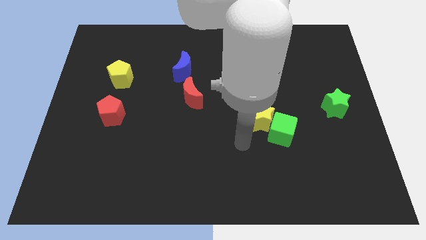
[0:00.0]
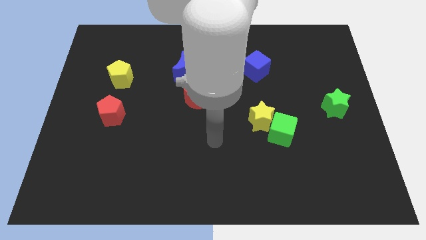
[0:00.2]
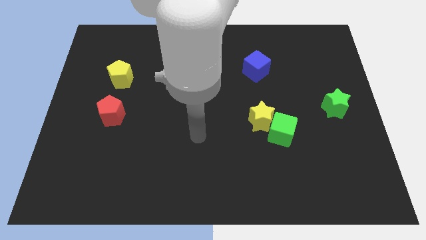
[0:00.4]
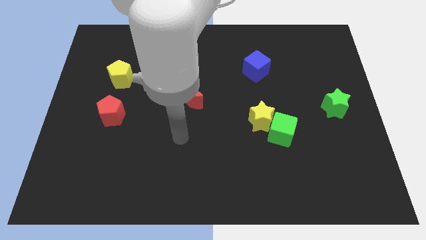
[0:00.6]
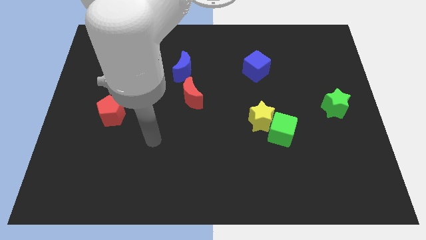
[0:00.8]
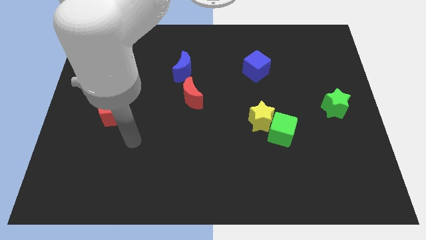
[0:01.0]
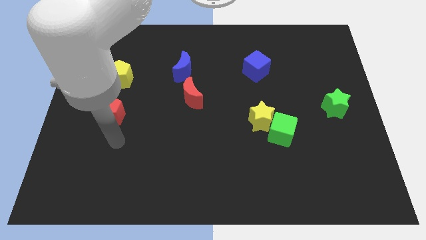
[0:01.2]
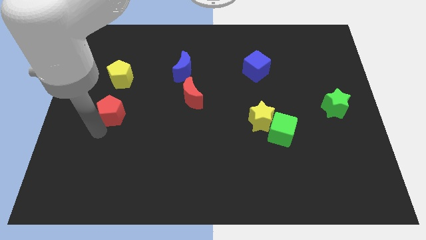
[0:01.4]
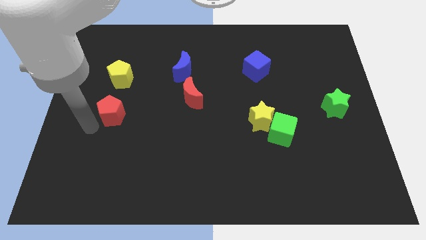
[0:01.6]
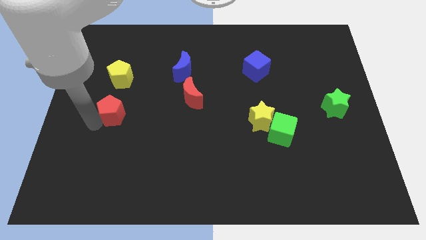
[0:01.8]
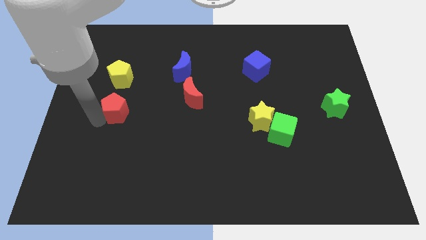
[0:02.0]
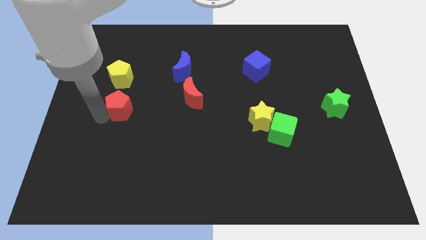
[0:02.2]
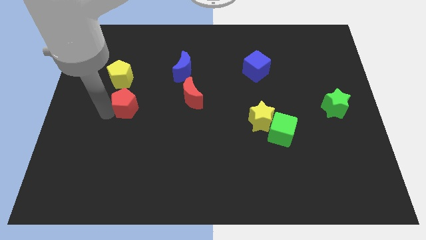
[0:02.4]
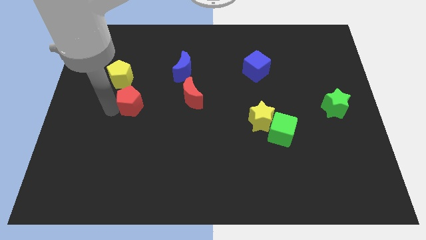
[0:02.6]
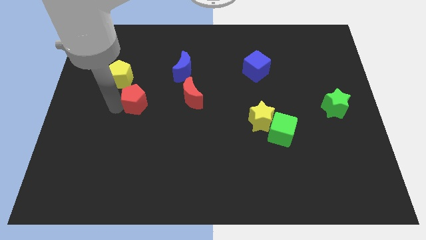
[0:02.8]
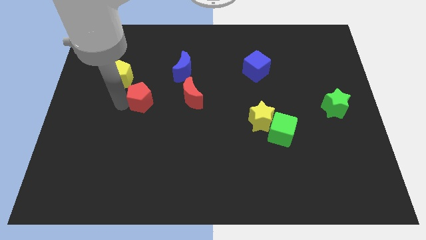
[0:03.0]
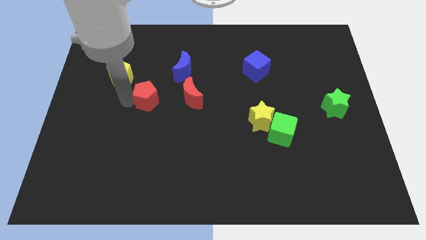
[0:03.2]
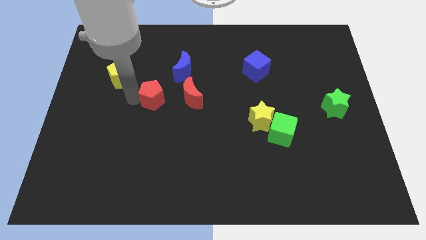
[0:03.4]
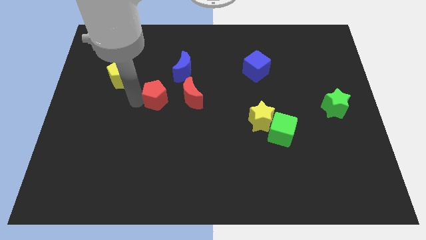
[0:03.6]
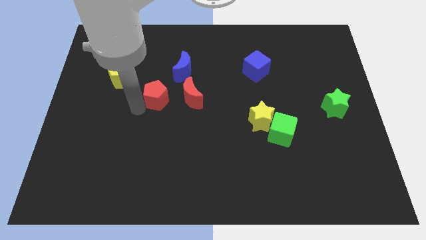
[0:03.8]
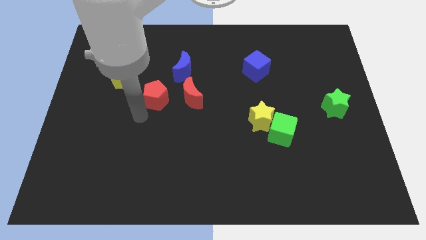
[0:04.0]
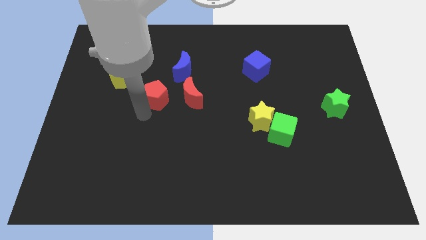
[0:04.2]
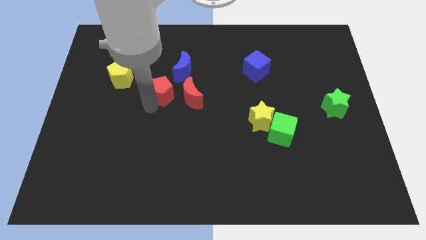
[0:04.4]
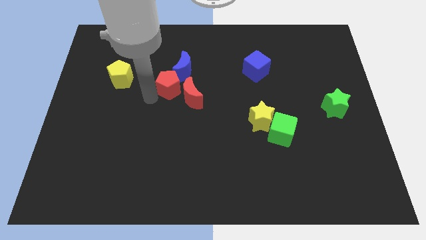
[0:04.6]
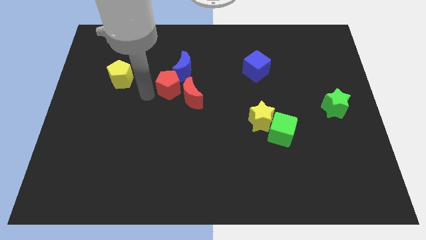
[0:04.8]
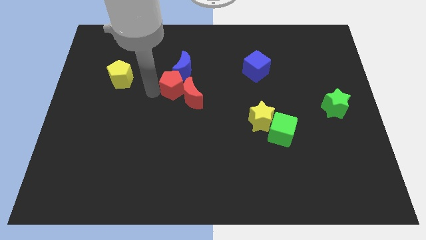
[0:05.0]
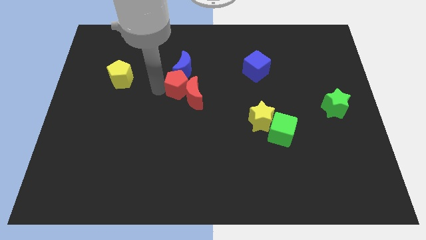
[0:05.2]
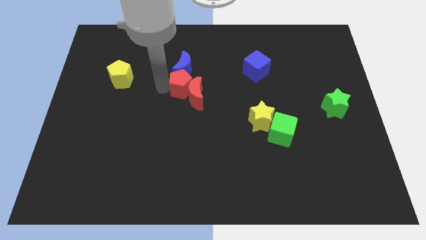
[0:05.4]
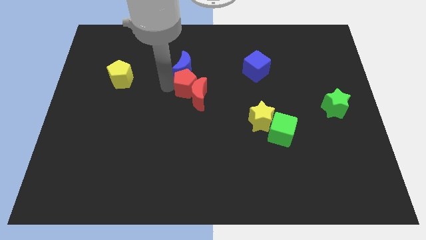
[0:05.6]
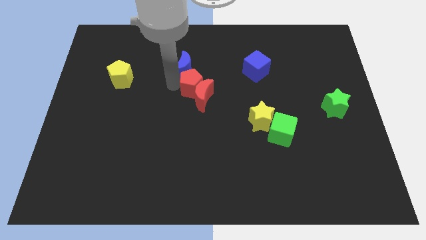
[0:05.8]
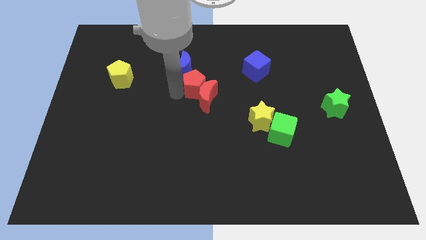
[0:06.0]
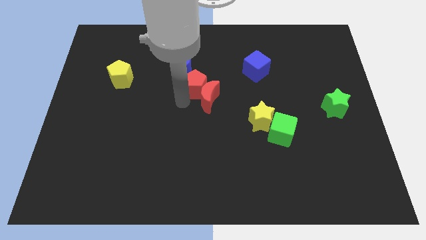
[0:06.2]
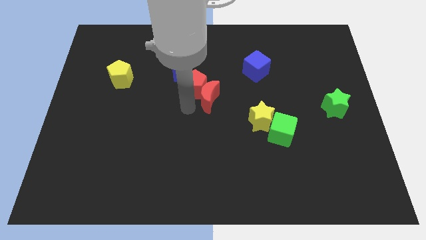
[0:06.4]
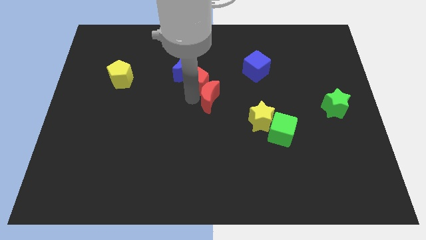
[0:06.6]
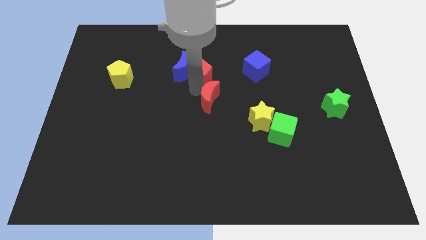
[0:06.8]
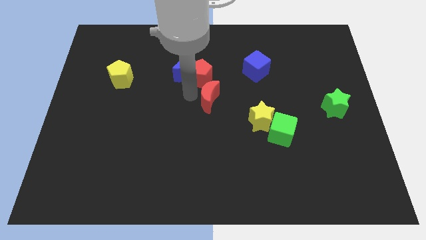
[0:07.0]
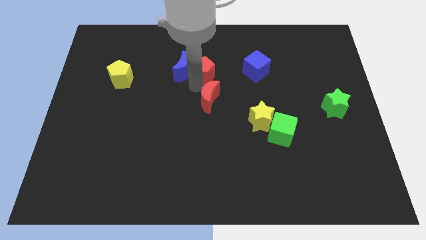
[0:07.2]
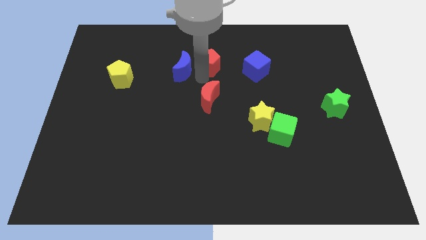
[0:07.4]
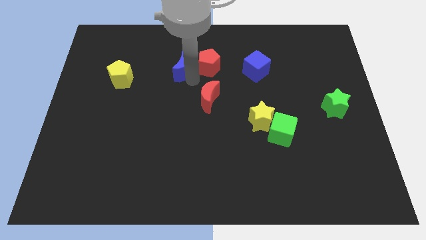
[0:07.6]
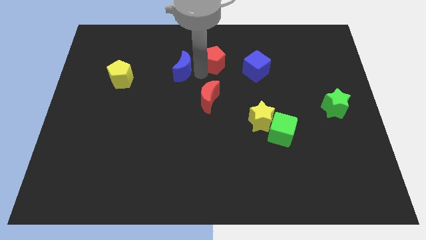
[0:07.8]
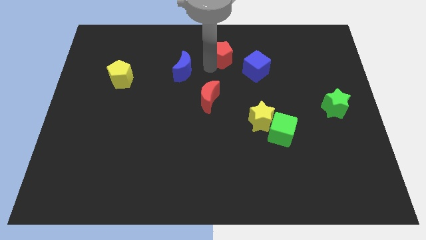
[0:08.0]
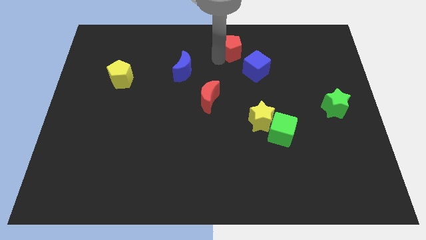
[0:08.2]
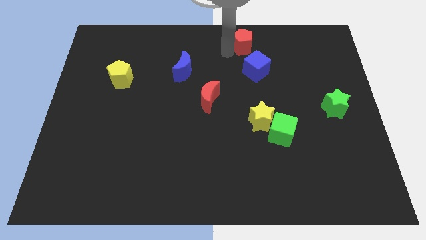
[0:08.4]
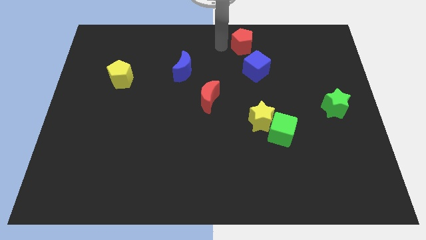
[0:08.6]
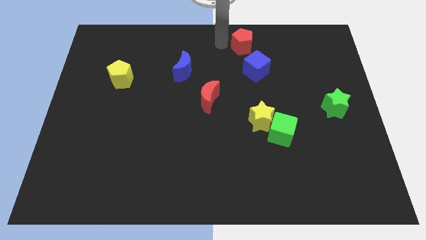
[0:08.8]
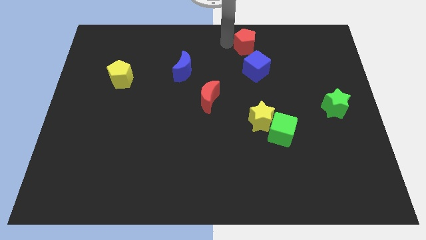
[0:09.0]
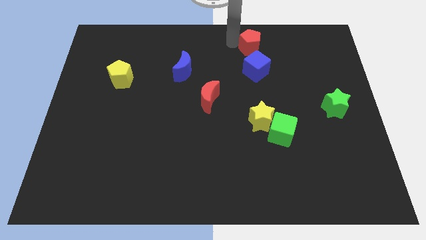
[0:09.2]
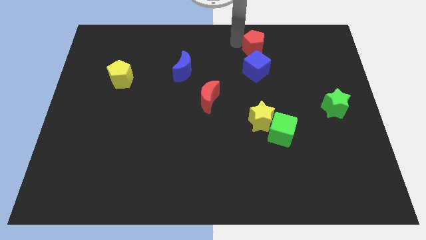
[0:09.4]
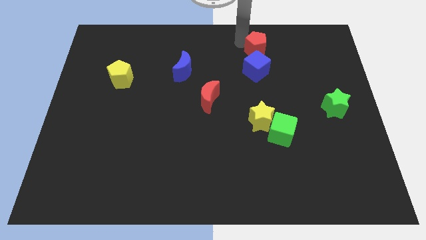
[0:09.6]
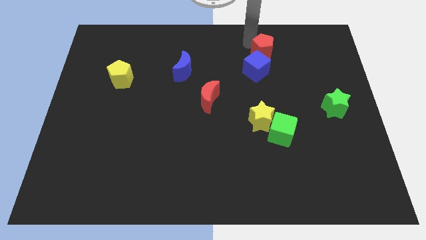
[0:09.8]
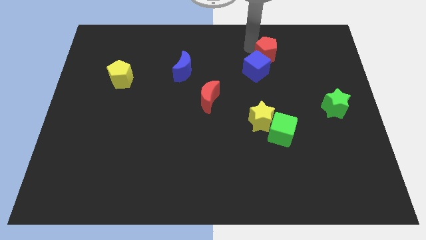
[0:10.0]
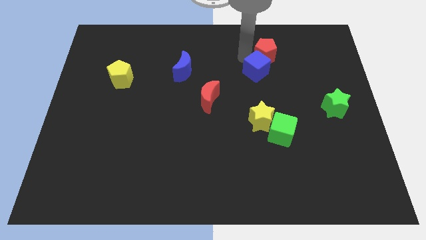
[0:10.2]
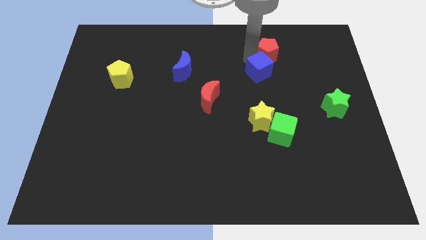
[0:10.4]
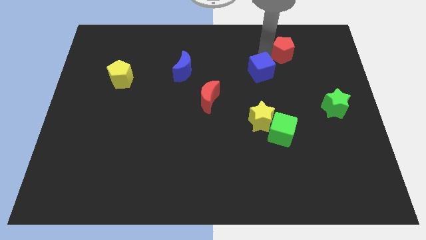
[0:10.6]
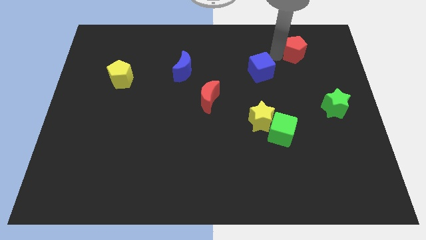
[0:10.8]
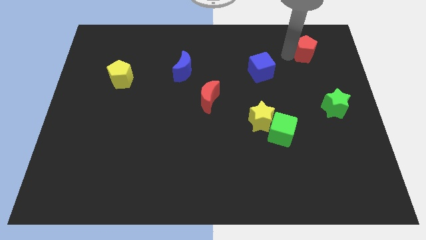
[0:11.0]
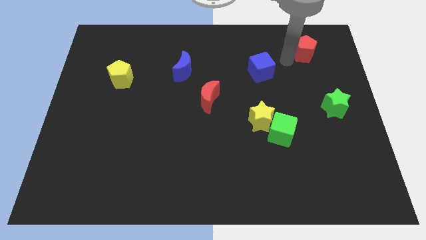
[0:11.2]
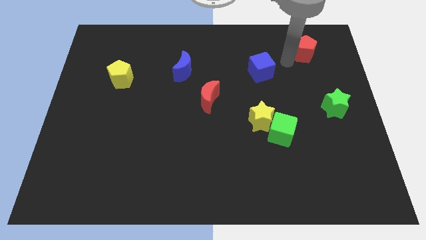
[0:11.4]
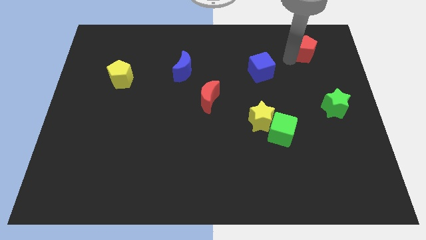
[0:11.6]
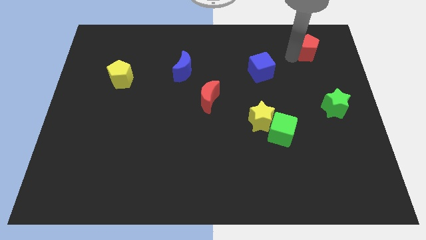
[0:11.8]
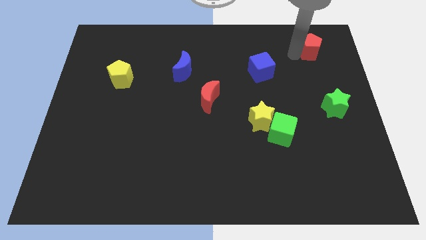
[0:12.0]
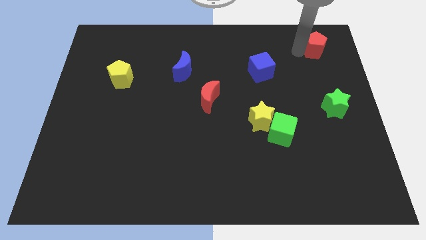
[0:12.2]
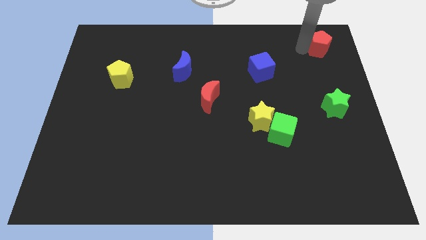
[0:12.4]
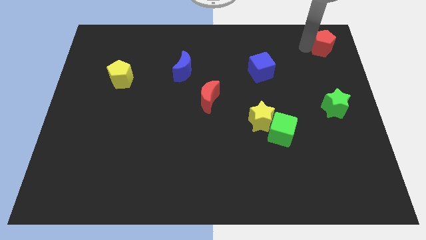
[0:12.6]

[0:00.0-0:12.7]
move the red pentagon to the top right corner

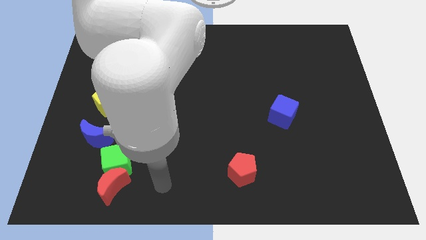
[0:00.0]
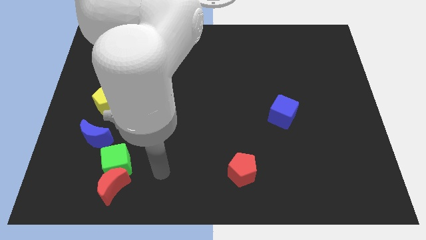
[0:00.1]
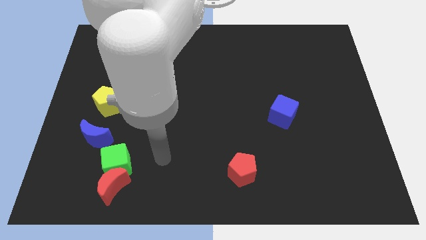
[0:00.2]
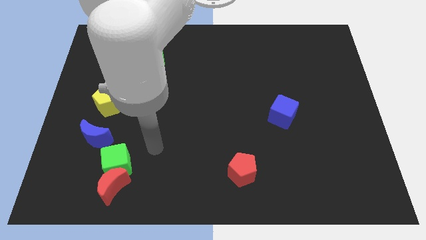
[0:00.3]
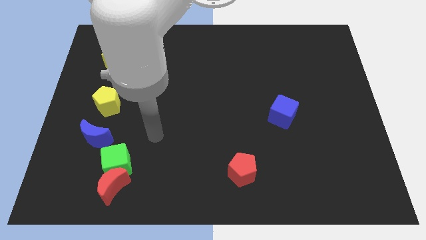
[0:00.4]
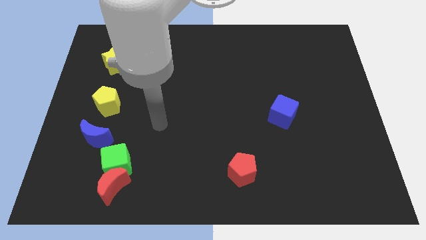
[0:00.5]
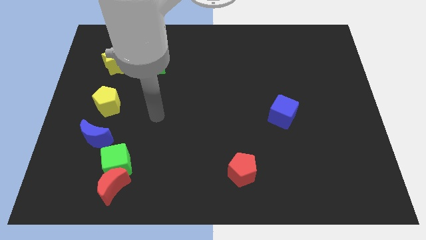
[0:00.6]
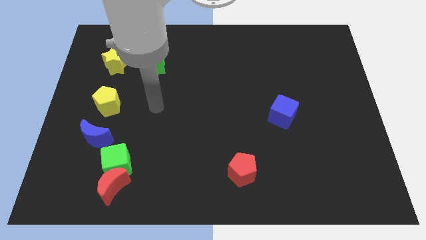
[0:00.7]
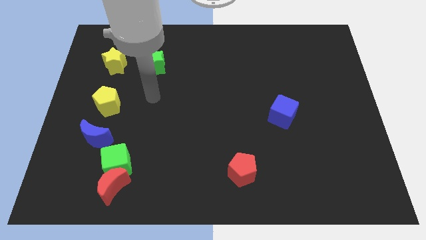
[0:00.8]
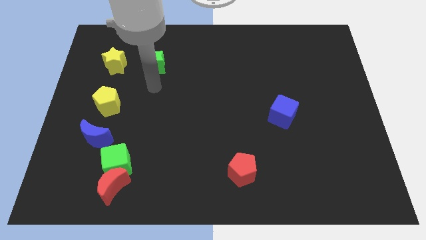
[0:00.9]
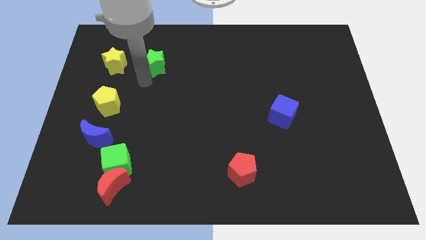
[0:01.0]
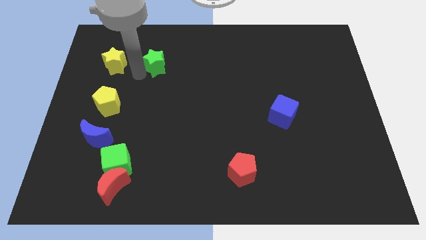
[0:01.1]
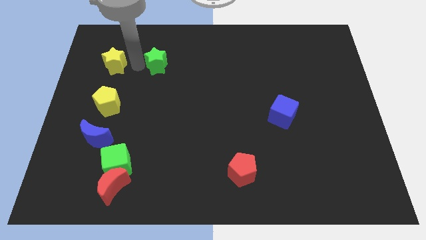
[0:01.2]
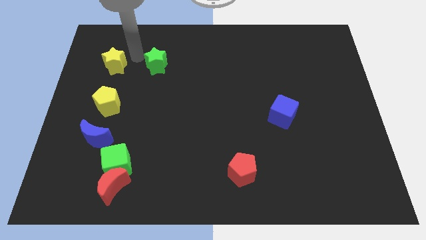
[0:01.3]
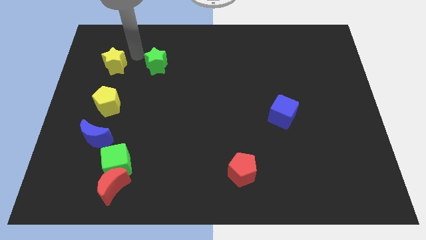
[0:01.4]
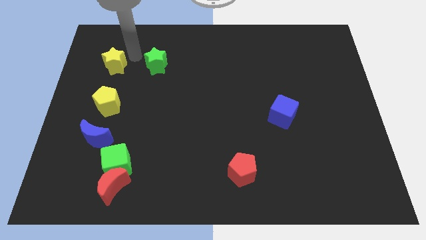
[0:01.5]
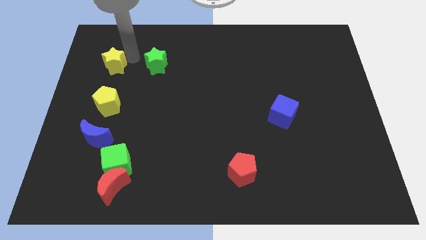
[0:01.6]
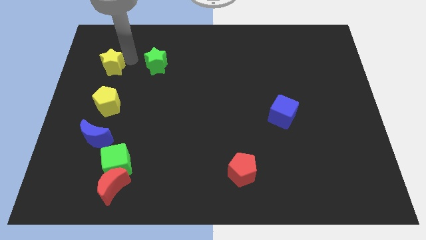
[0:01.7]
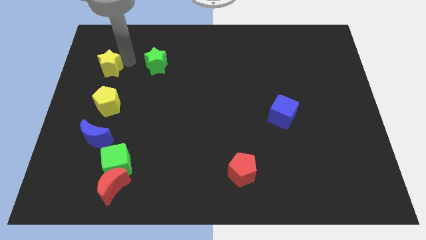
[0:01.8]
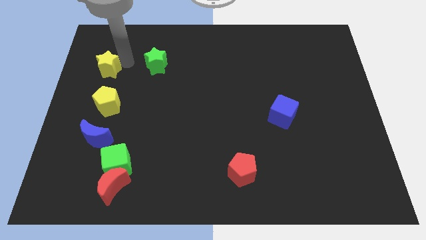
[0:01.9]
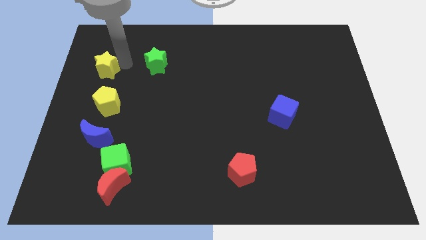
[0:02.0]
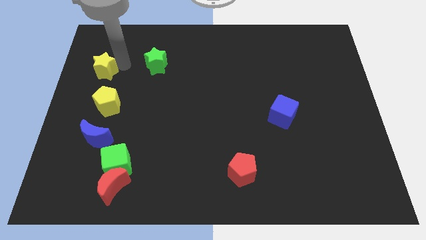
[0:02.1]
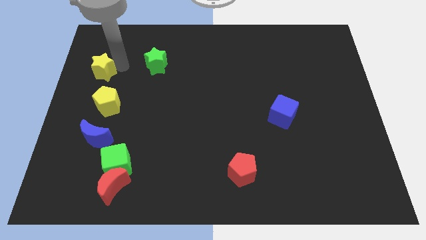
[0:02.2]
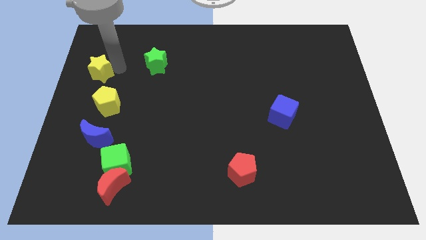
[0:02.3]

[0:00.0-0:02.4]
put the yellow star to the left side
